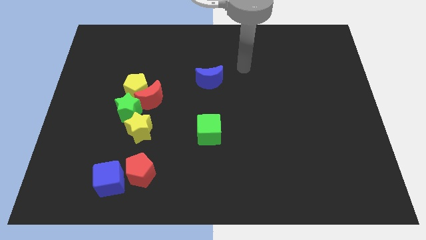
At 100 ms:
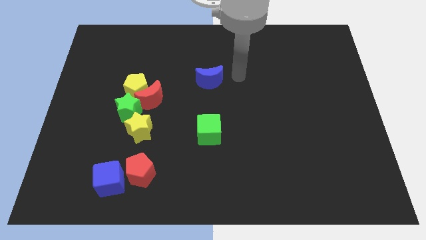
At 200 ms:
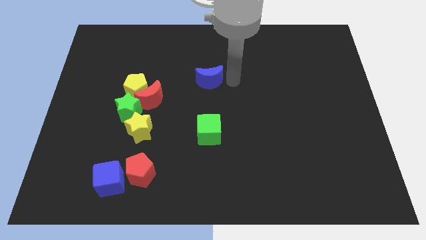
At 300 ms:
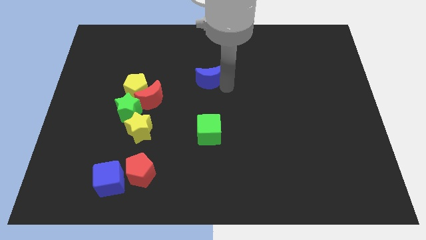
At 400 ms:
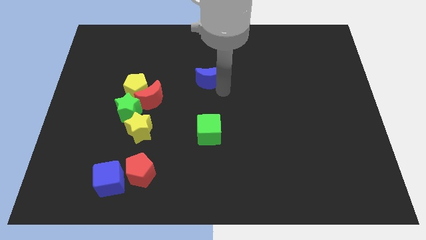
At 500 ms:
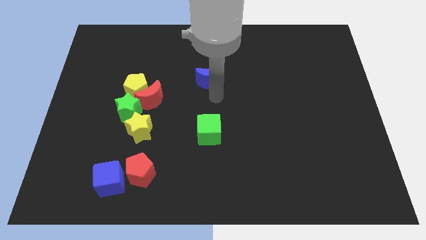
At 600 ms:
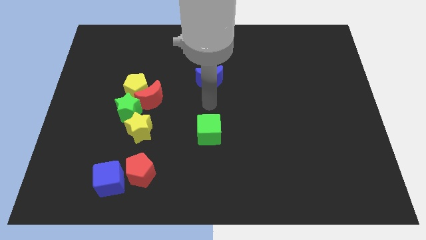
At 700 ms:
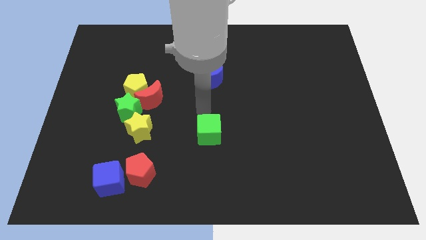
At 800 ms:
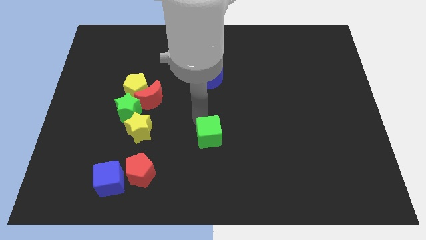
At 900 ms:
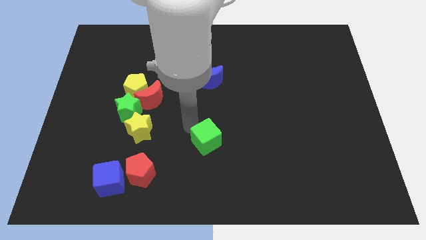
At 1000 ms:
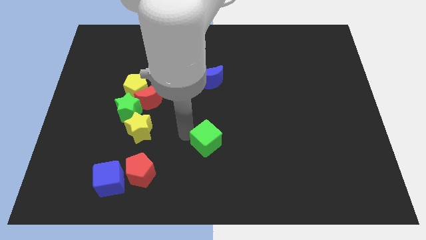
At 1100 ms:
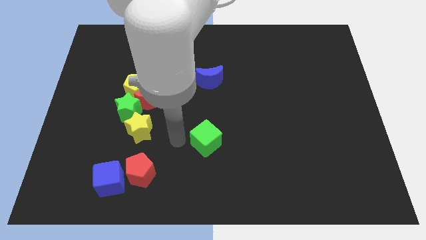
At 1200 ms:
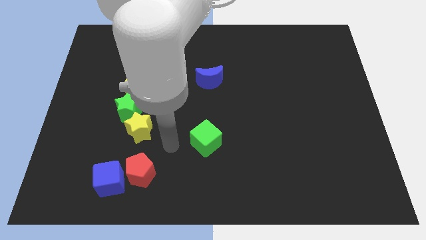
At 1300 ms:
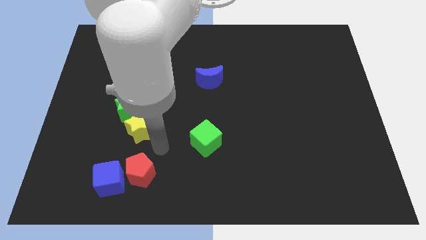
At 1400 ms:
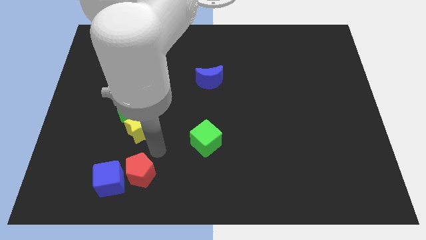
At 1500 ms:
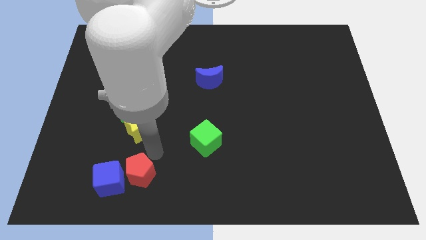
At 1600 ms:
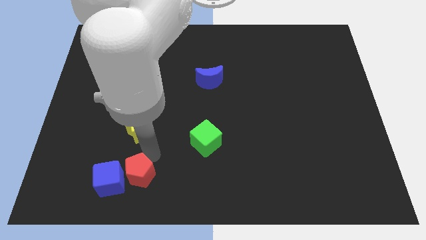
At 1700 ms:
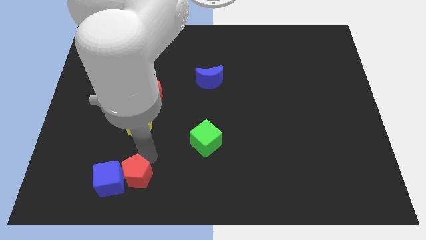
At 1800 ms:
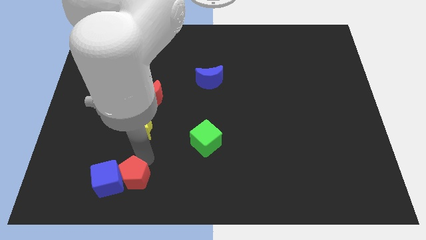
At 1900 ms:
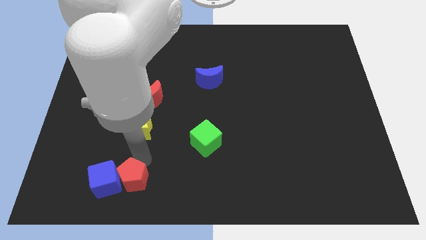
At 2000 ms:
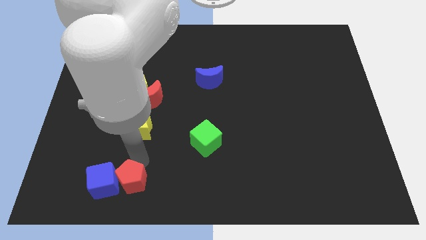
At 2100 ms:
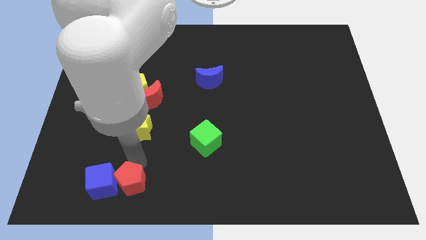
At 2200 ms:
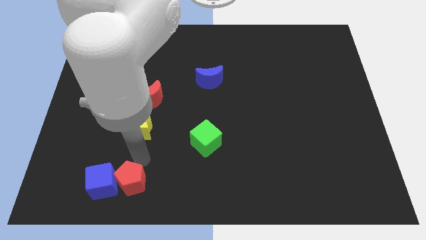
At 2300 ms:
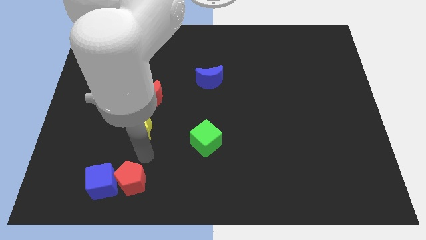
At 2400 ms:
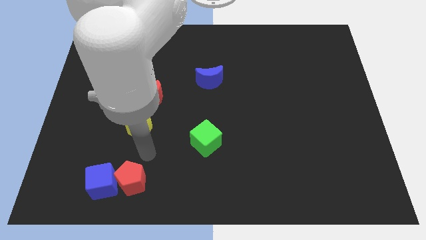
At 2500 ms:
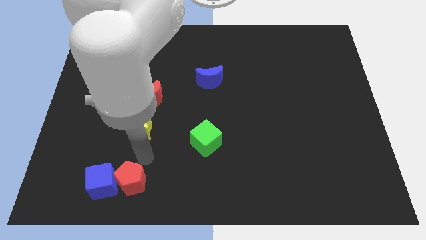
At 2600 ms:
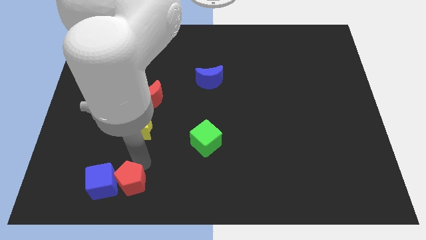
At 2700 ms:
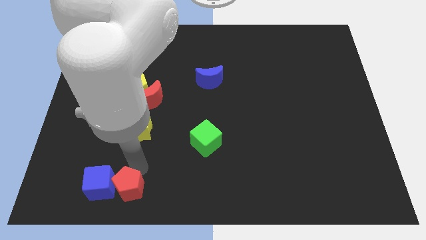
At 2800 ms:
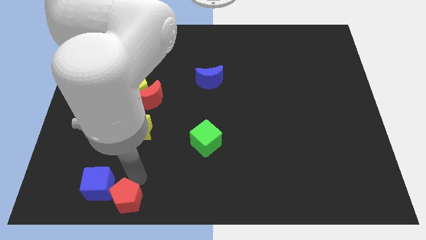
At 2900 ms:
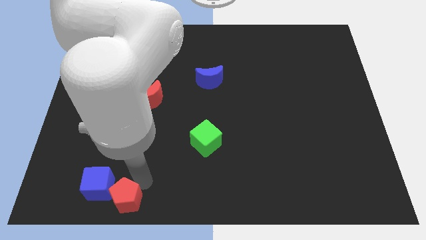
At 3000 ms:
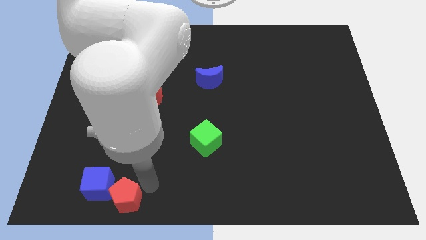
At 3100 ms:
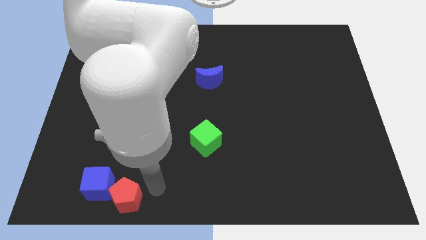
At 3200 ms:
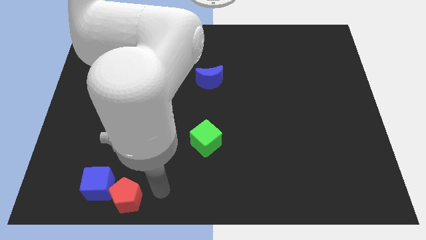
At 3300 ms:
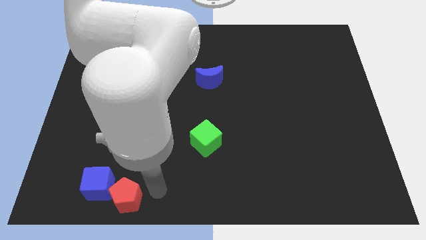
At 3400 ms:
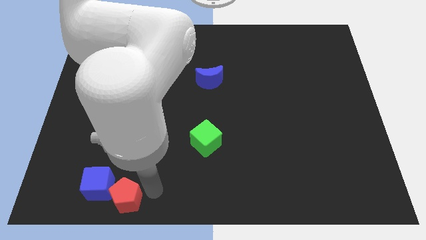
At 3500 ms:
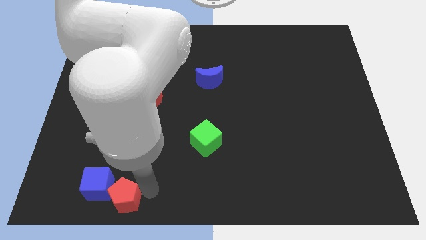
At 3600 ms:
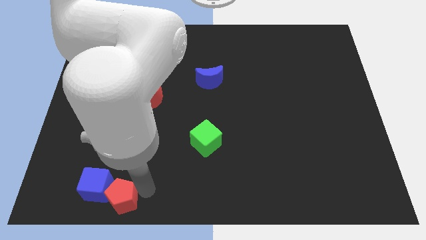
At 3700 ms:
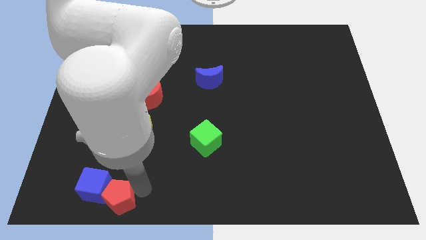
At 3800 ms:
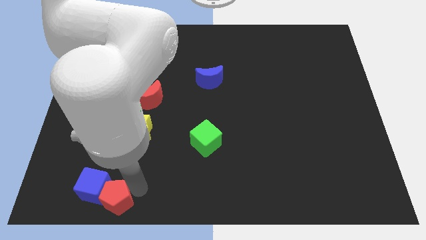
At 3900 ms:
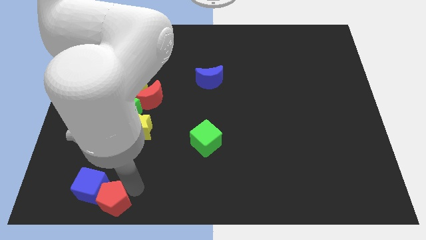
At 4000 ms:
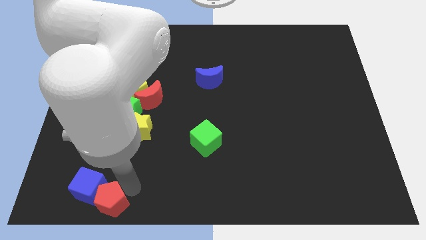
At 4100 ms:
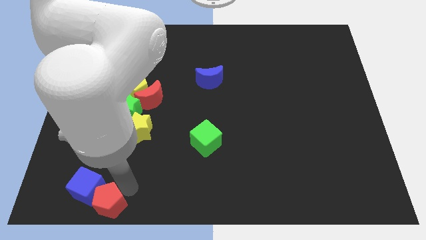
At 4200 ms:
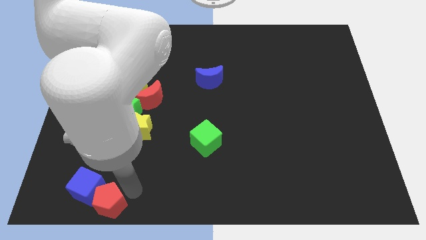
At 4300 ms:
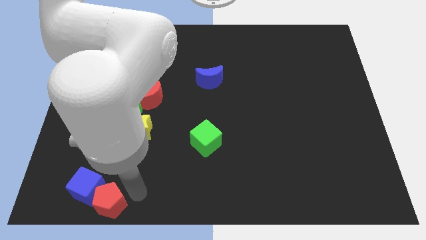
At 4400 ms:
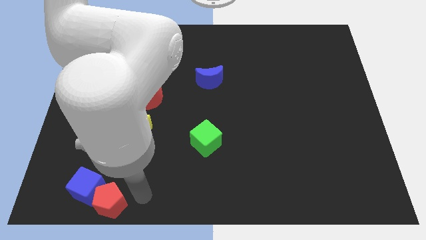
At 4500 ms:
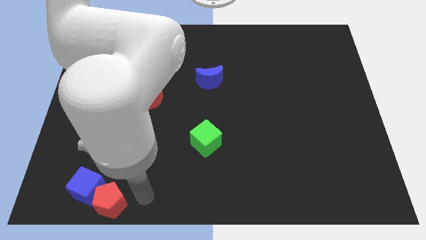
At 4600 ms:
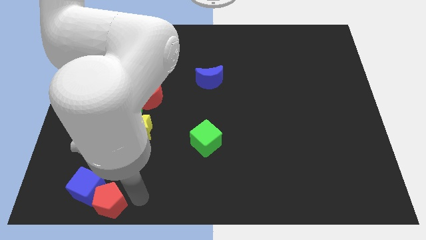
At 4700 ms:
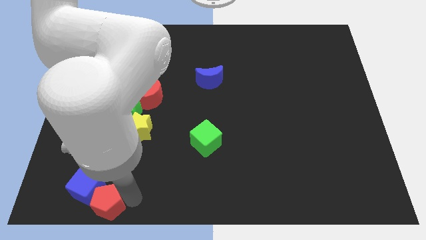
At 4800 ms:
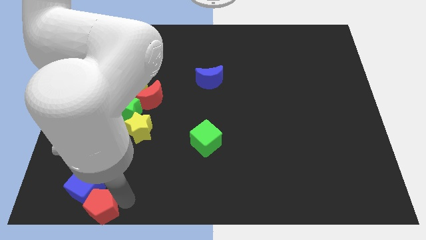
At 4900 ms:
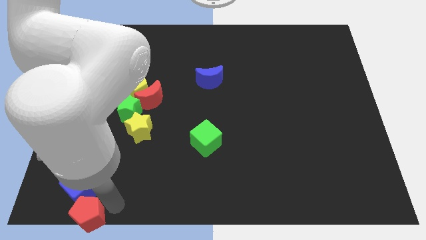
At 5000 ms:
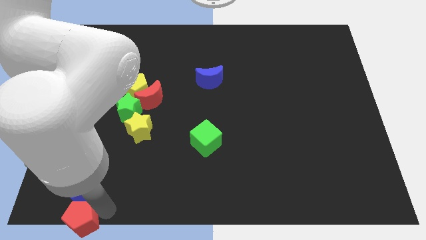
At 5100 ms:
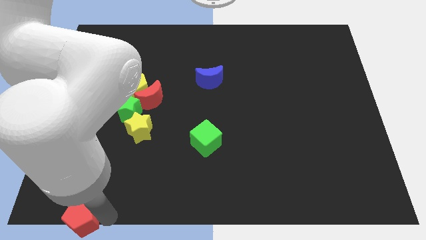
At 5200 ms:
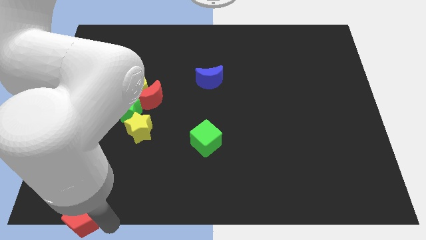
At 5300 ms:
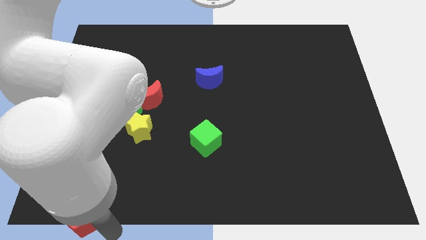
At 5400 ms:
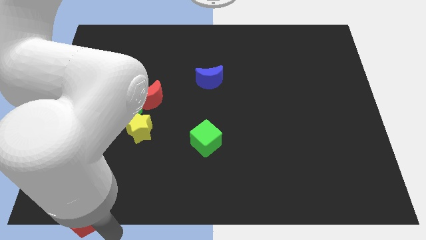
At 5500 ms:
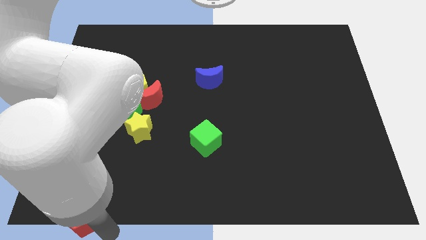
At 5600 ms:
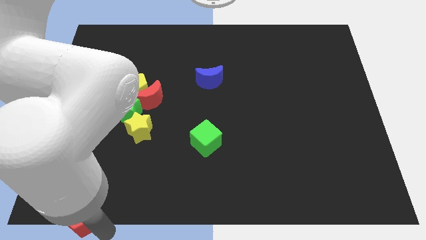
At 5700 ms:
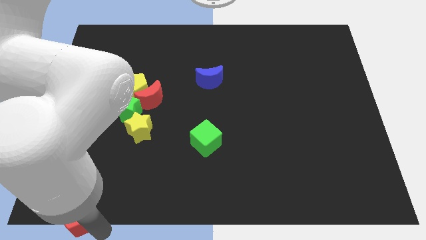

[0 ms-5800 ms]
put the red pentagon to the bottom left

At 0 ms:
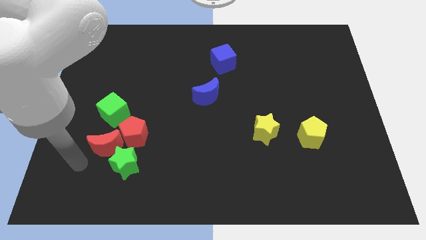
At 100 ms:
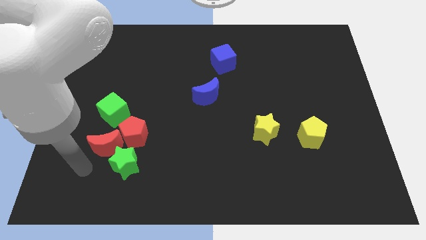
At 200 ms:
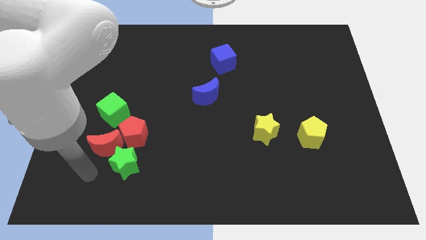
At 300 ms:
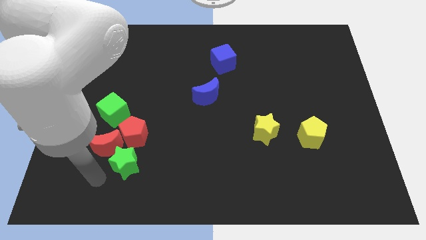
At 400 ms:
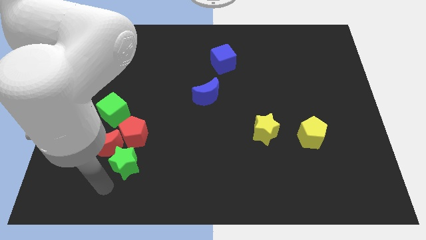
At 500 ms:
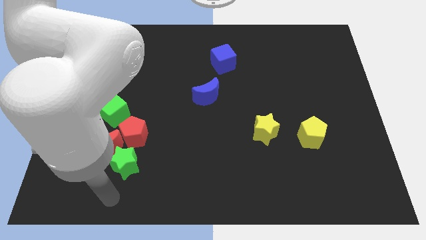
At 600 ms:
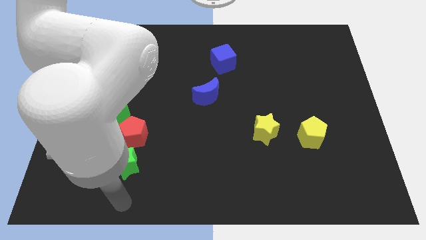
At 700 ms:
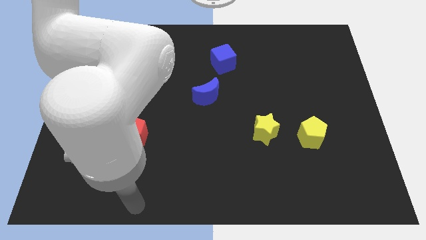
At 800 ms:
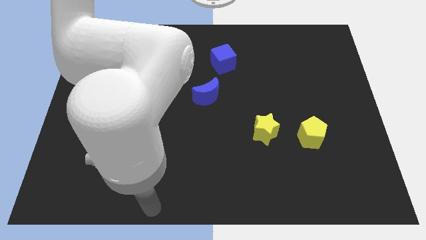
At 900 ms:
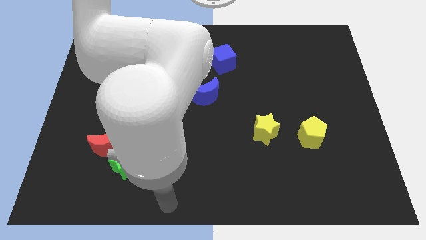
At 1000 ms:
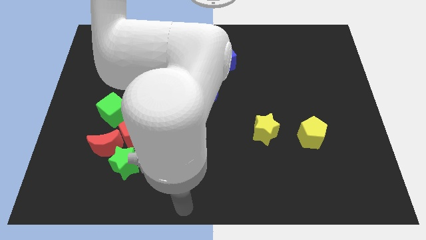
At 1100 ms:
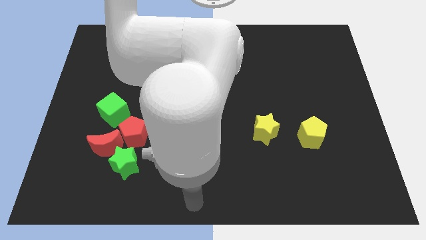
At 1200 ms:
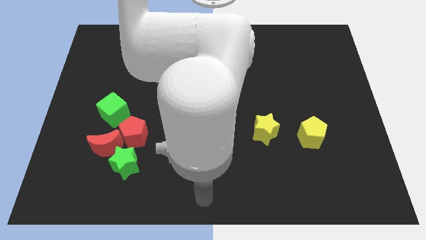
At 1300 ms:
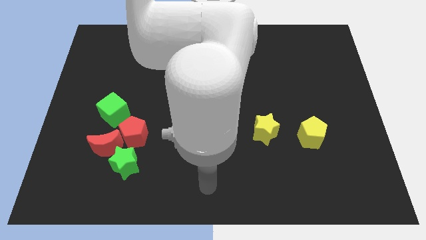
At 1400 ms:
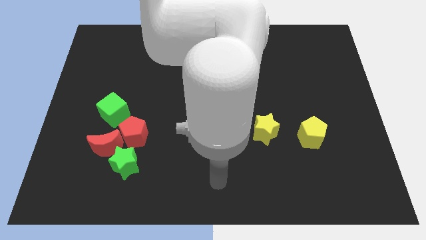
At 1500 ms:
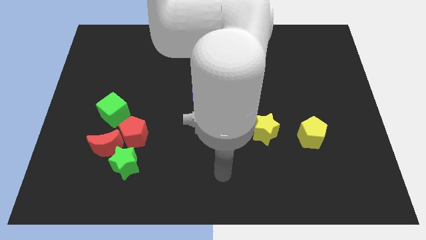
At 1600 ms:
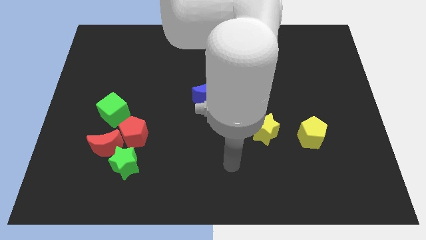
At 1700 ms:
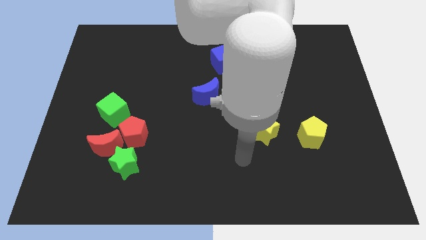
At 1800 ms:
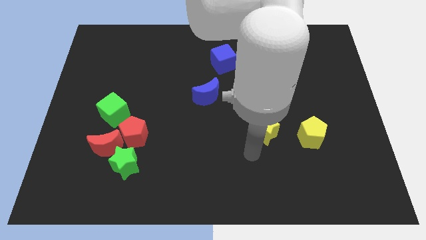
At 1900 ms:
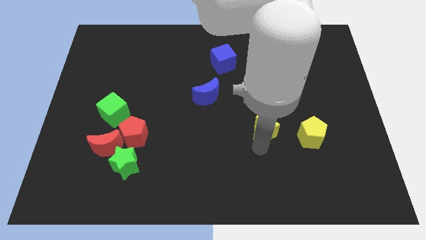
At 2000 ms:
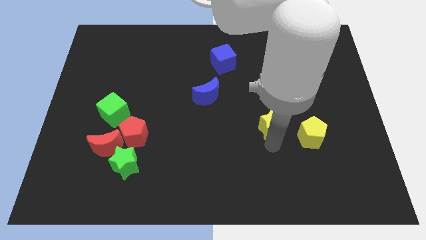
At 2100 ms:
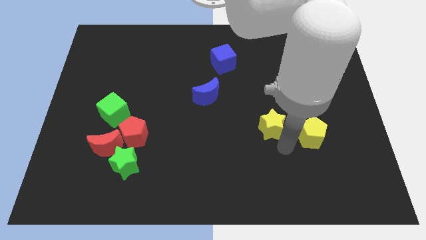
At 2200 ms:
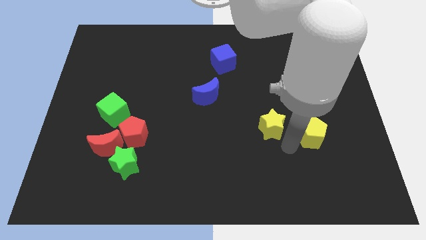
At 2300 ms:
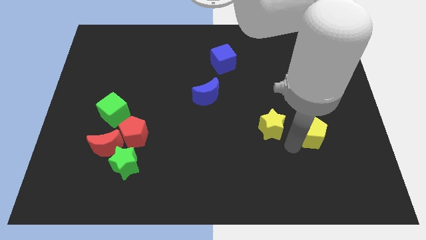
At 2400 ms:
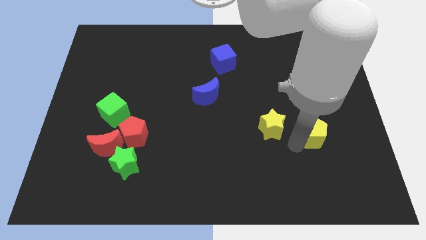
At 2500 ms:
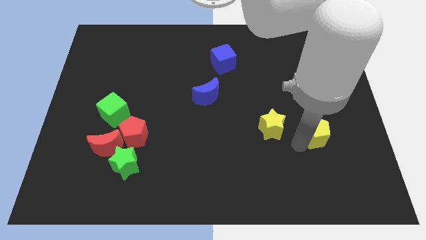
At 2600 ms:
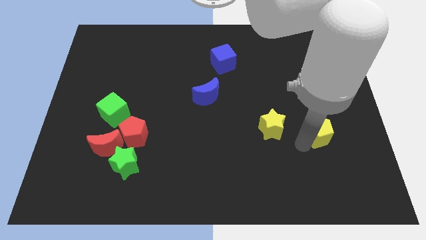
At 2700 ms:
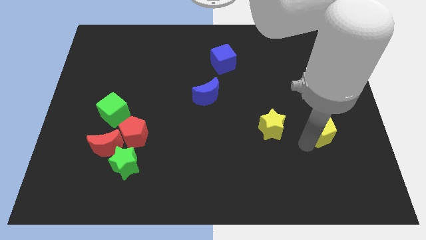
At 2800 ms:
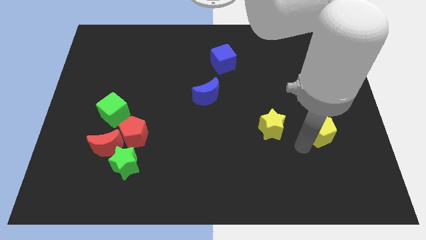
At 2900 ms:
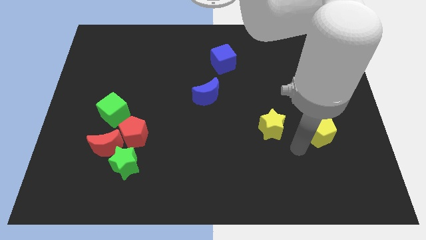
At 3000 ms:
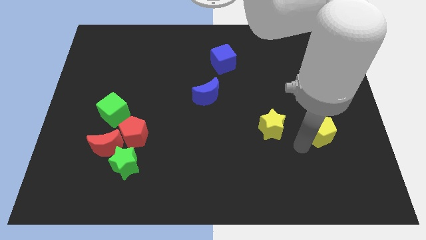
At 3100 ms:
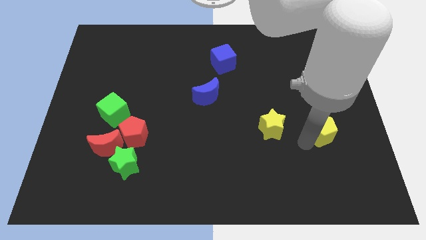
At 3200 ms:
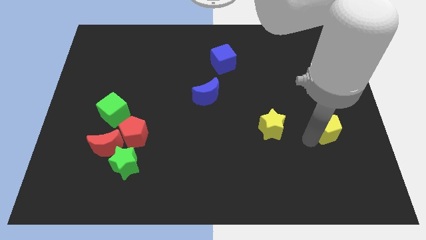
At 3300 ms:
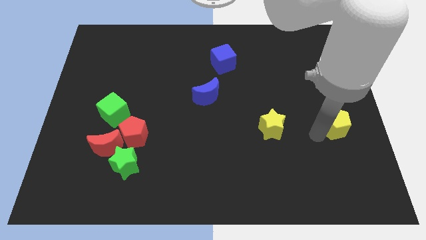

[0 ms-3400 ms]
move the yellow pentagon to the right side
